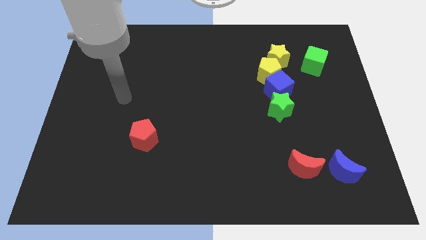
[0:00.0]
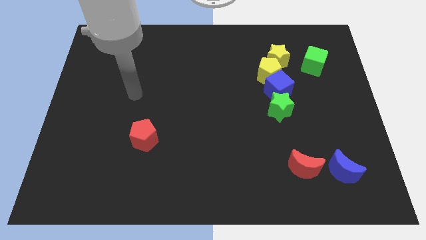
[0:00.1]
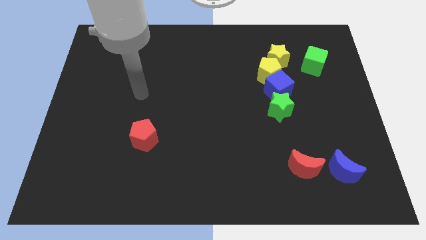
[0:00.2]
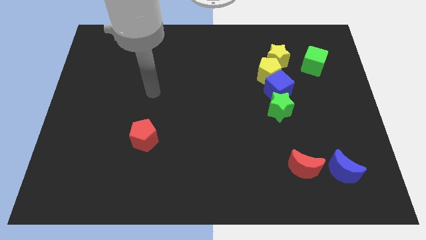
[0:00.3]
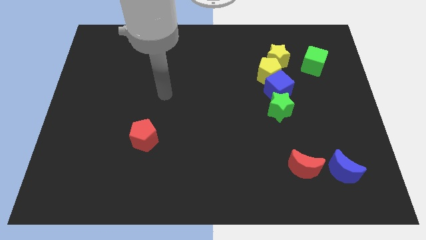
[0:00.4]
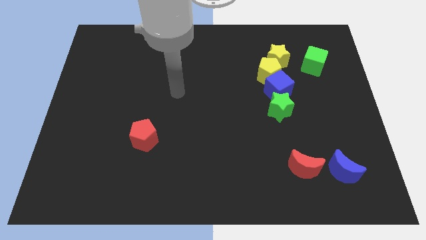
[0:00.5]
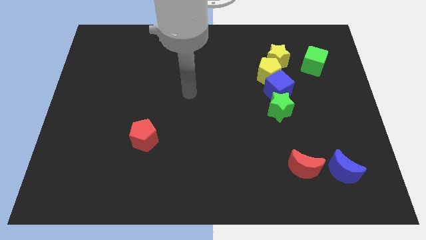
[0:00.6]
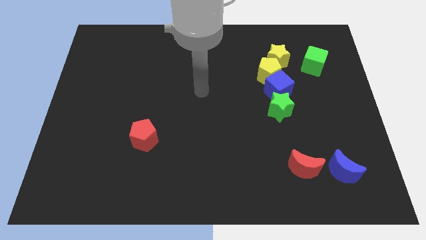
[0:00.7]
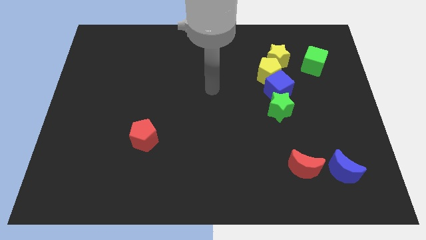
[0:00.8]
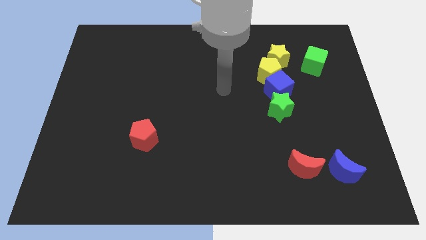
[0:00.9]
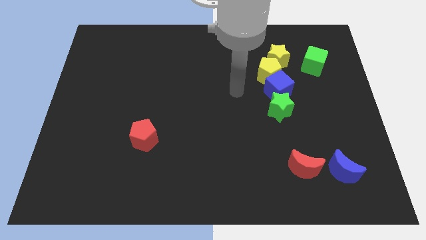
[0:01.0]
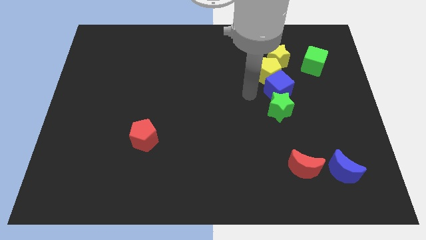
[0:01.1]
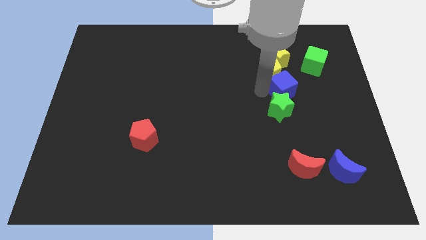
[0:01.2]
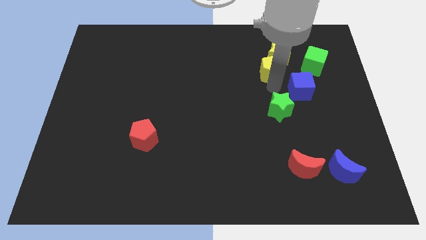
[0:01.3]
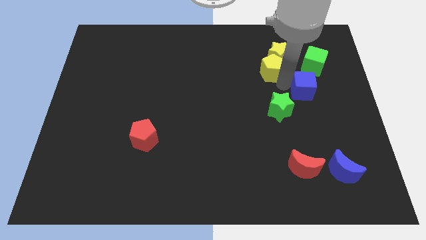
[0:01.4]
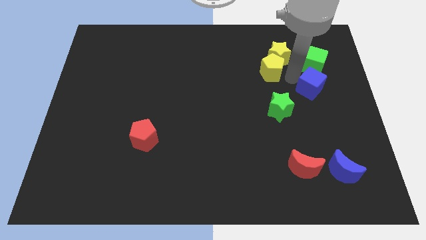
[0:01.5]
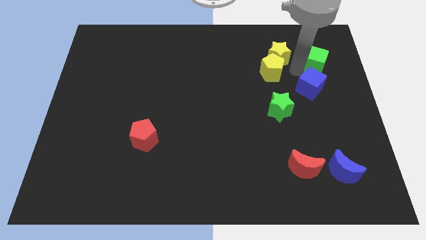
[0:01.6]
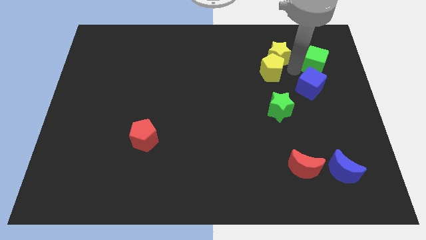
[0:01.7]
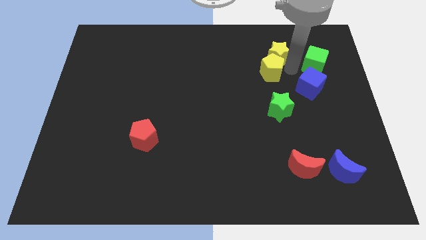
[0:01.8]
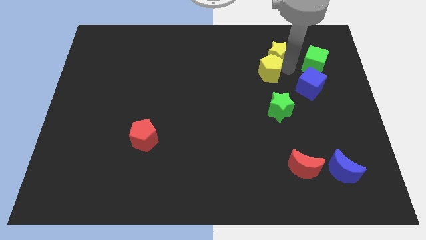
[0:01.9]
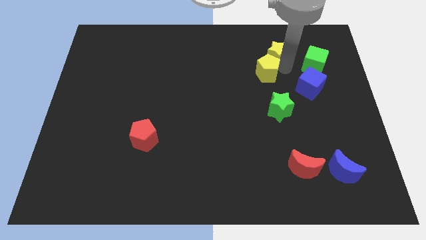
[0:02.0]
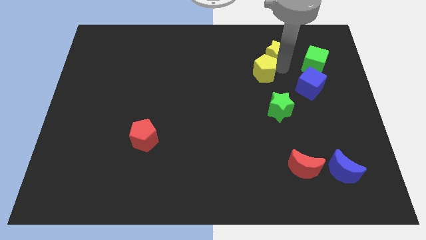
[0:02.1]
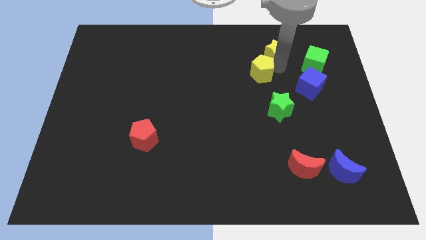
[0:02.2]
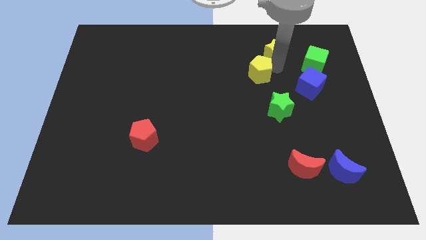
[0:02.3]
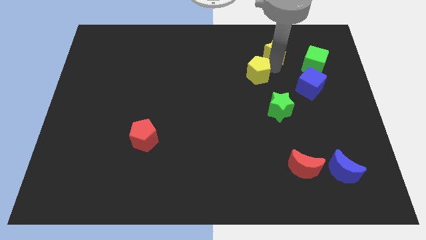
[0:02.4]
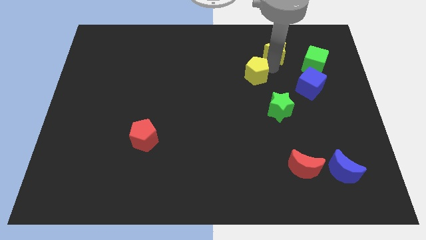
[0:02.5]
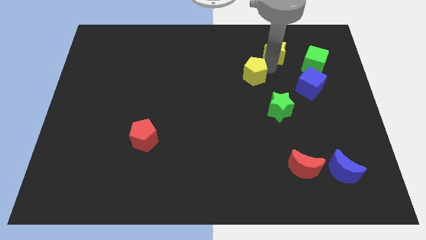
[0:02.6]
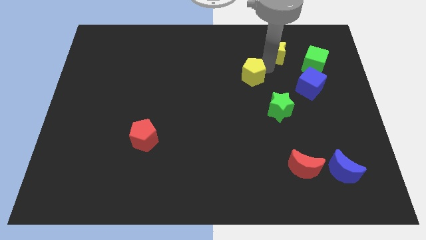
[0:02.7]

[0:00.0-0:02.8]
separate the yellow pentagon from the yellow star and blue cube

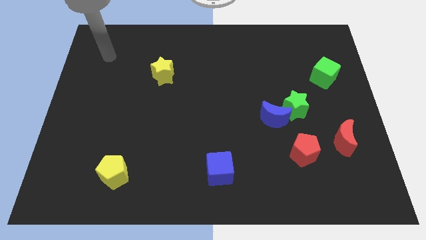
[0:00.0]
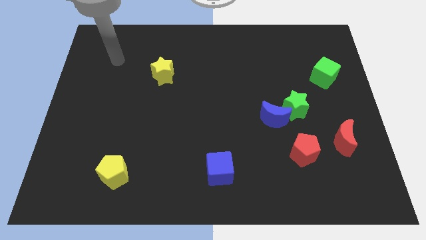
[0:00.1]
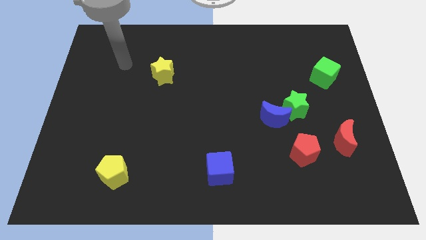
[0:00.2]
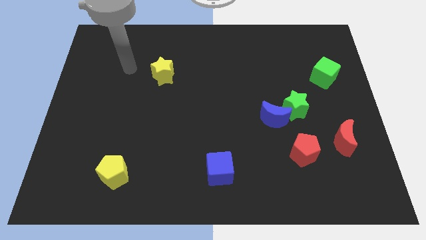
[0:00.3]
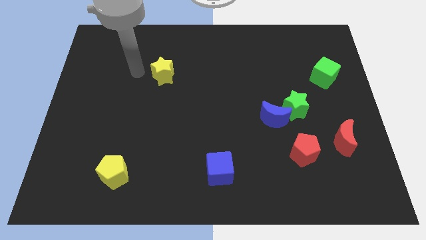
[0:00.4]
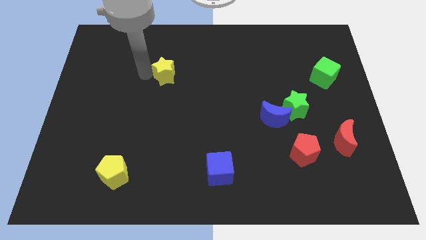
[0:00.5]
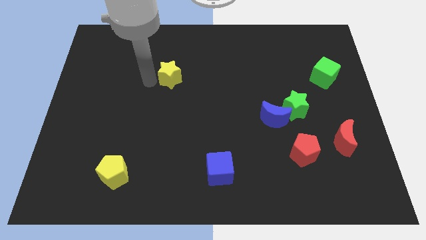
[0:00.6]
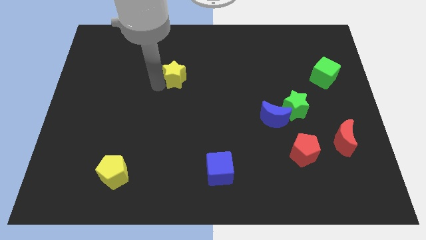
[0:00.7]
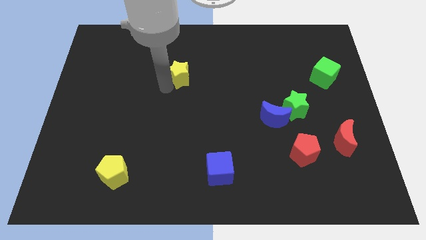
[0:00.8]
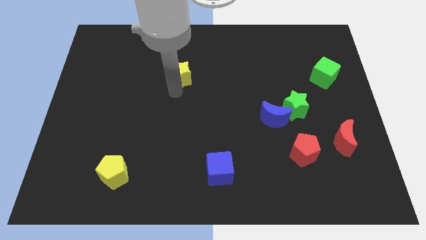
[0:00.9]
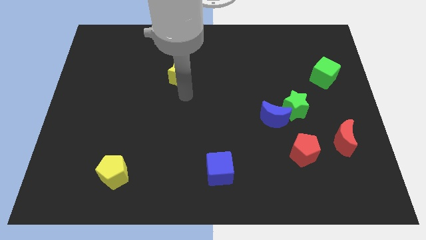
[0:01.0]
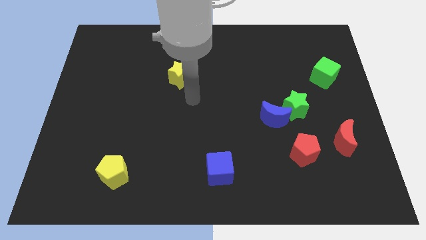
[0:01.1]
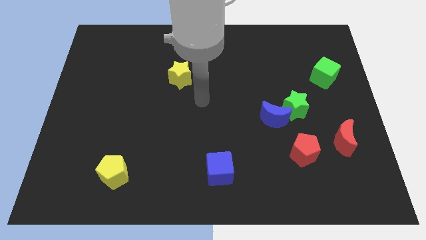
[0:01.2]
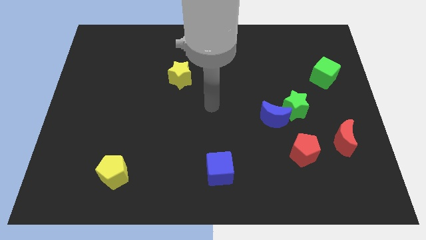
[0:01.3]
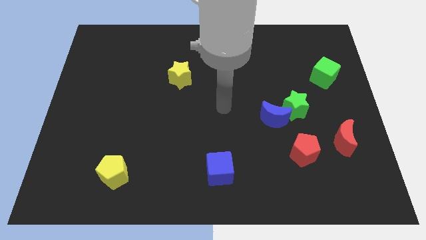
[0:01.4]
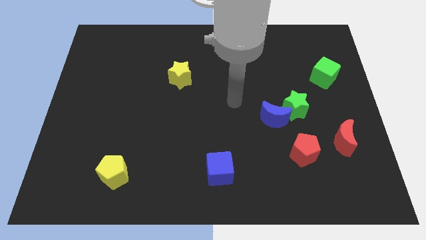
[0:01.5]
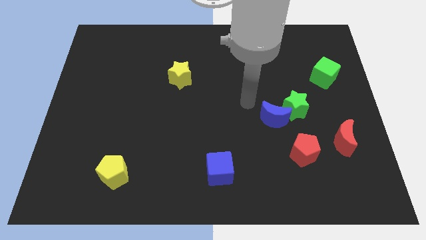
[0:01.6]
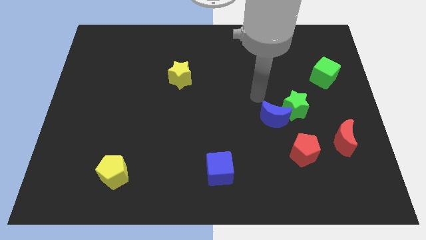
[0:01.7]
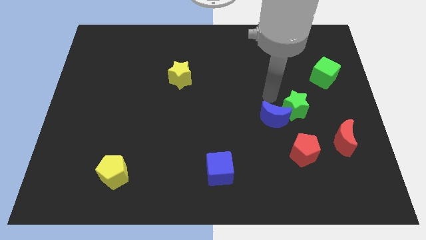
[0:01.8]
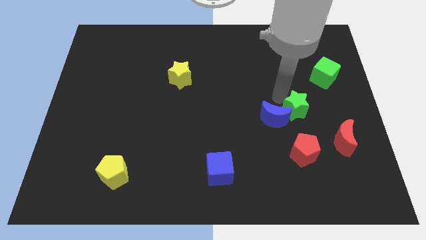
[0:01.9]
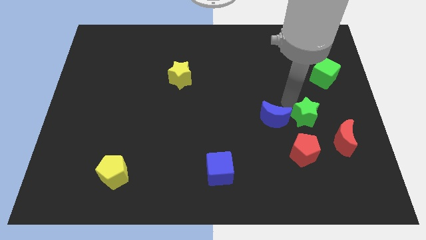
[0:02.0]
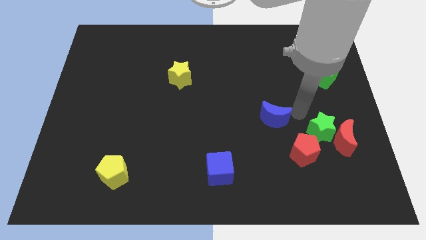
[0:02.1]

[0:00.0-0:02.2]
pull the blue moon apart from the green star

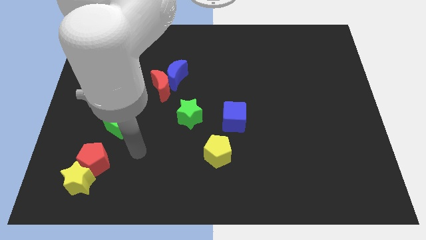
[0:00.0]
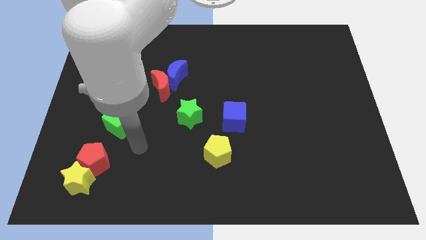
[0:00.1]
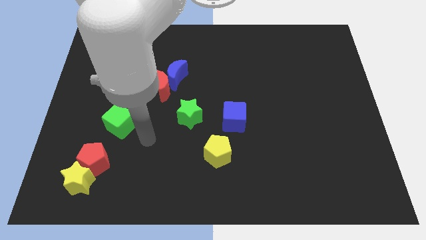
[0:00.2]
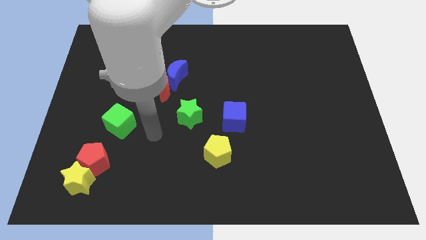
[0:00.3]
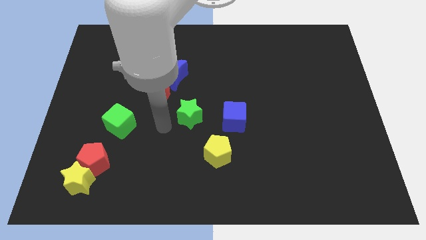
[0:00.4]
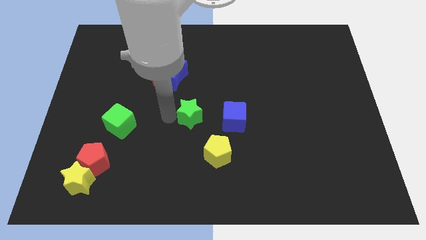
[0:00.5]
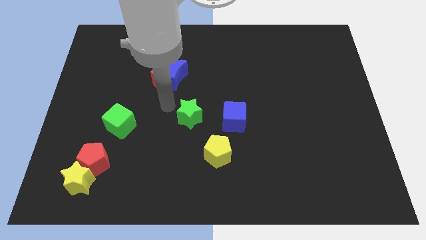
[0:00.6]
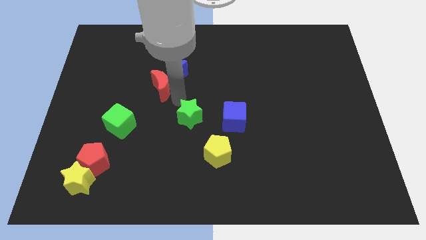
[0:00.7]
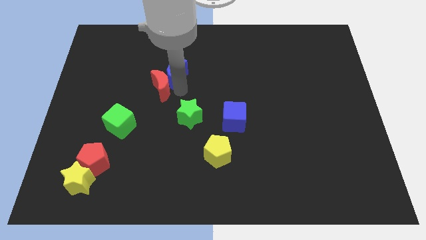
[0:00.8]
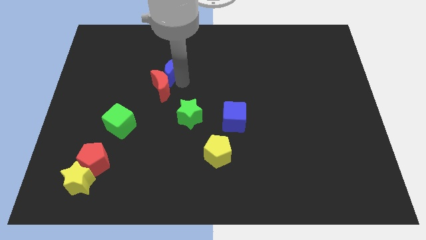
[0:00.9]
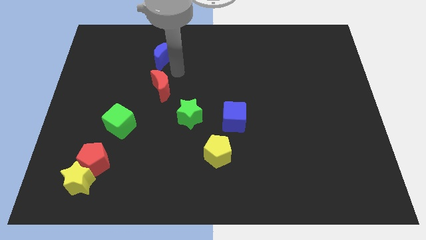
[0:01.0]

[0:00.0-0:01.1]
separate the red moon from the blue moon

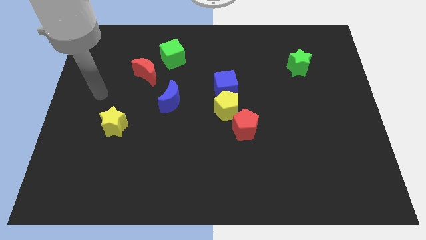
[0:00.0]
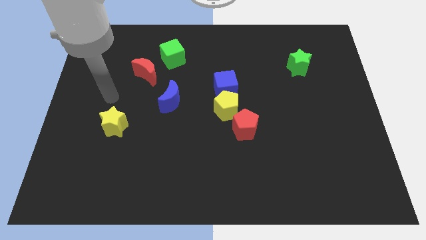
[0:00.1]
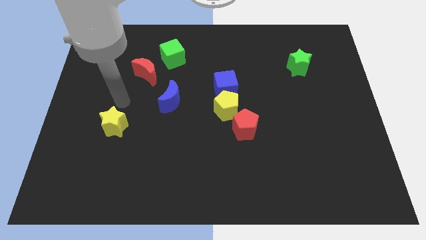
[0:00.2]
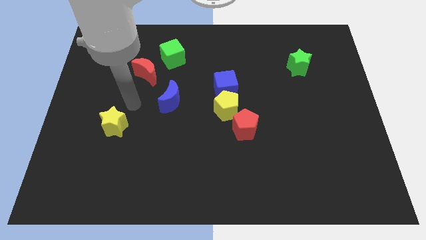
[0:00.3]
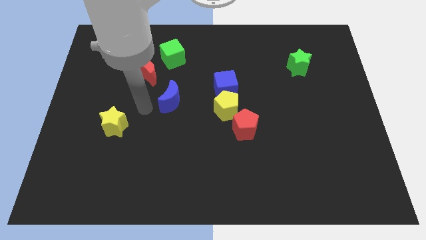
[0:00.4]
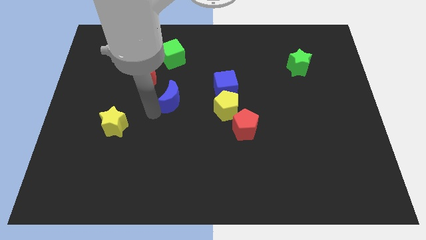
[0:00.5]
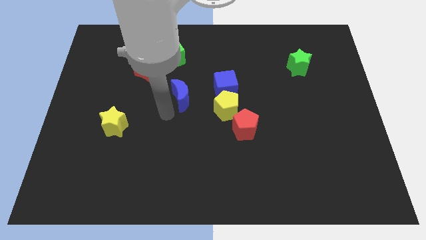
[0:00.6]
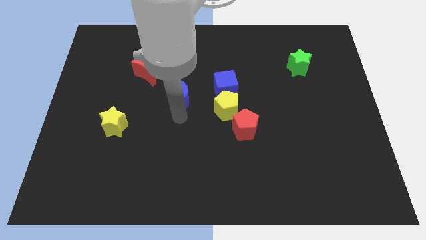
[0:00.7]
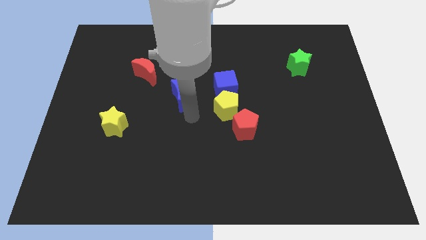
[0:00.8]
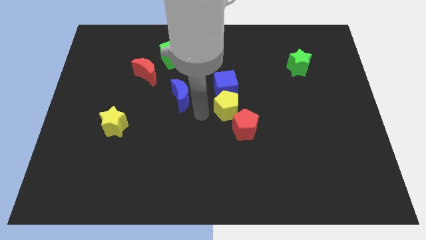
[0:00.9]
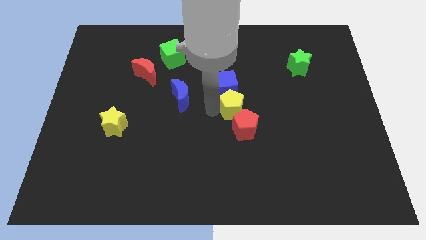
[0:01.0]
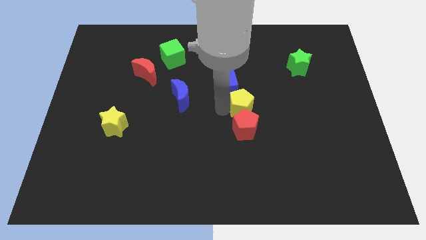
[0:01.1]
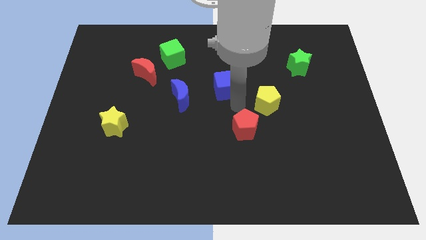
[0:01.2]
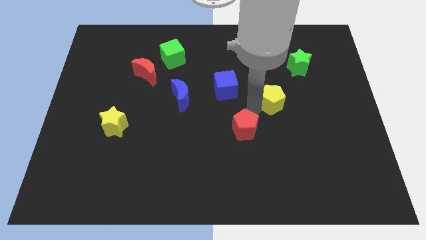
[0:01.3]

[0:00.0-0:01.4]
pull the red pentagon apart from the yellow pentagon

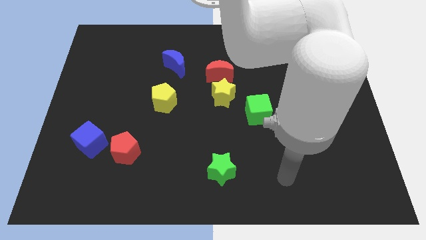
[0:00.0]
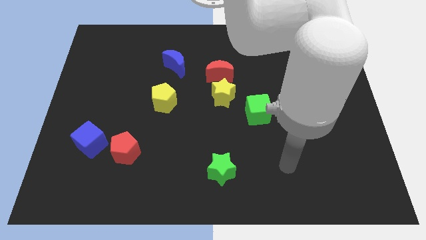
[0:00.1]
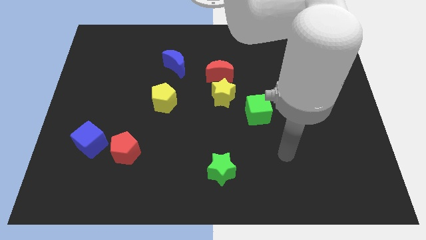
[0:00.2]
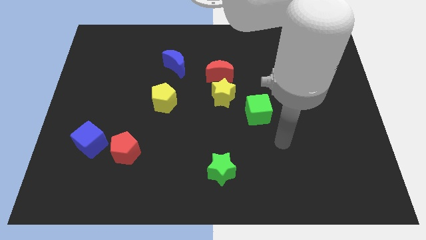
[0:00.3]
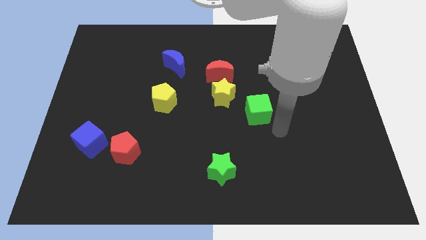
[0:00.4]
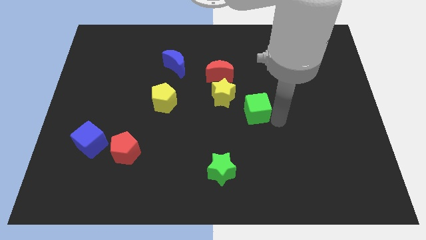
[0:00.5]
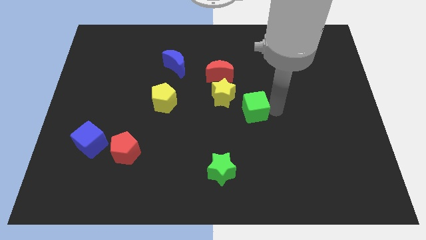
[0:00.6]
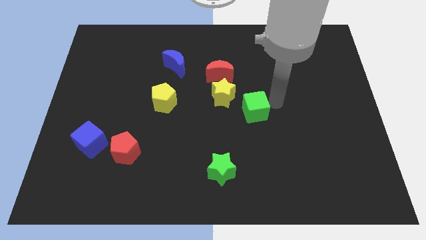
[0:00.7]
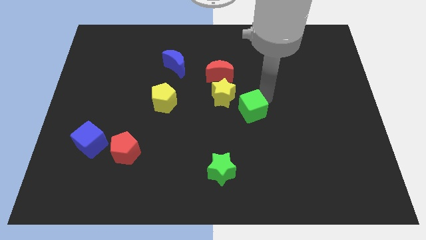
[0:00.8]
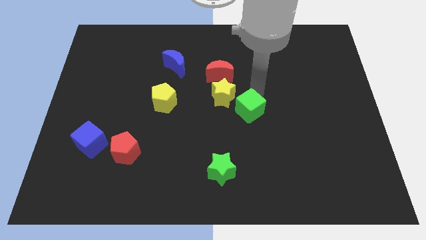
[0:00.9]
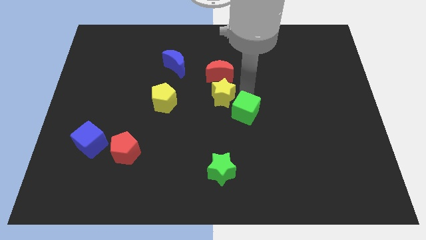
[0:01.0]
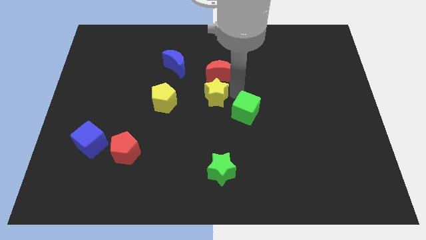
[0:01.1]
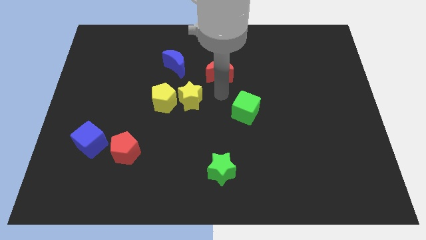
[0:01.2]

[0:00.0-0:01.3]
pull the red moon apart from the yellow star

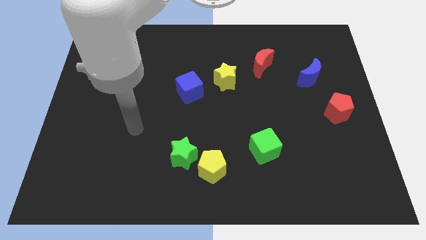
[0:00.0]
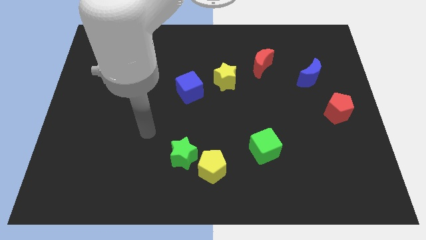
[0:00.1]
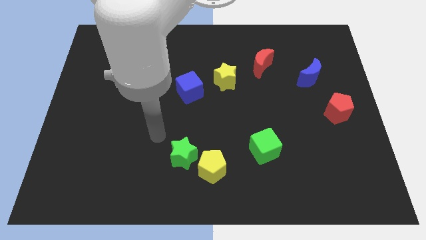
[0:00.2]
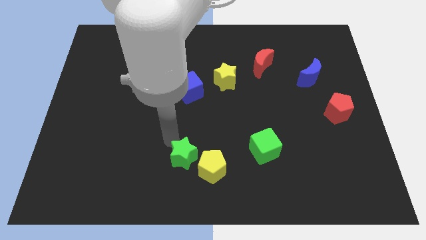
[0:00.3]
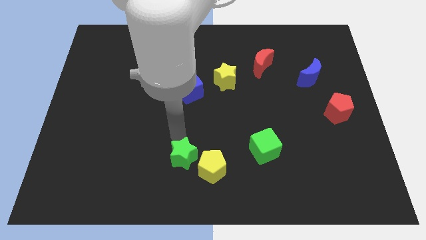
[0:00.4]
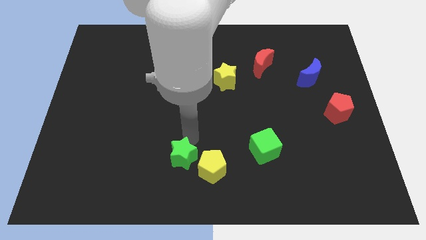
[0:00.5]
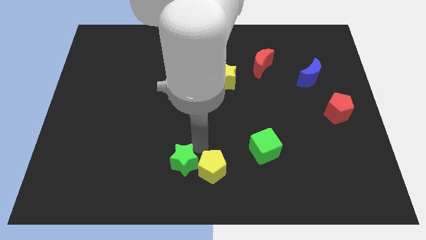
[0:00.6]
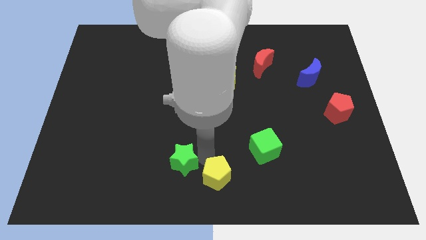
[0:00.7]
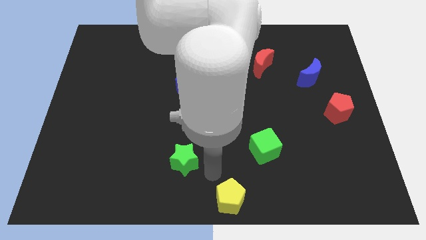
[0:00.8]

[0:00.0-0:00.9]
separate the green star from the yellow pentagon
